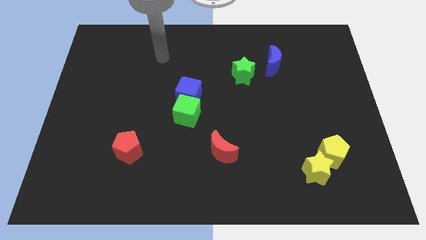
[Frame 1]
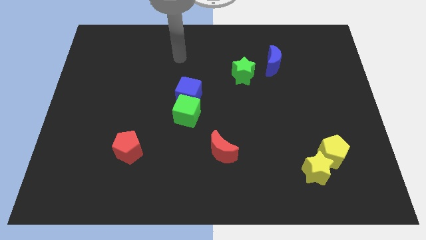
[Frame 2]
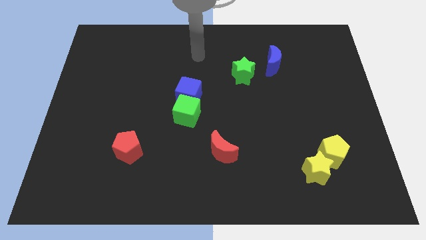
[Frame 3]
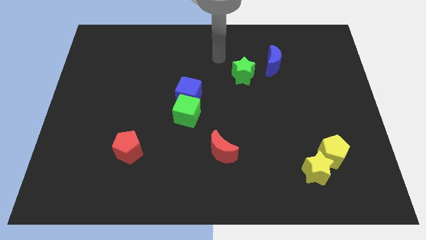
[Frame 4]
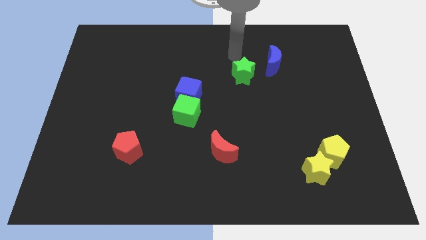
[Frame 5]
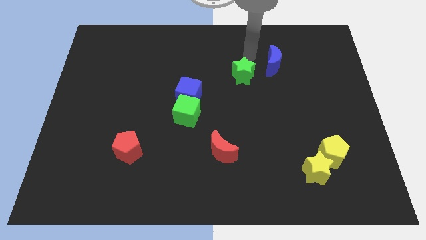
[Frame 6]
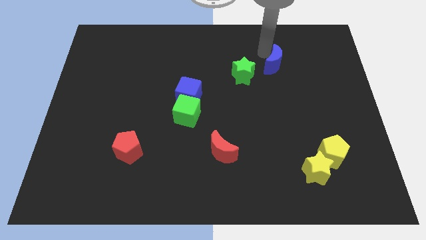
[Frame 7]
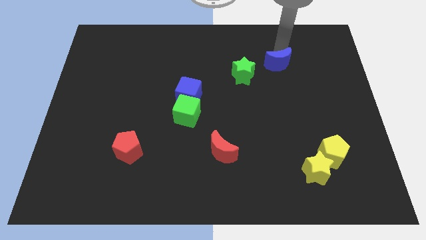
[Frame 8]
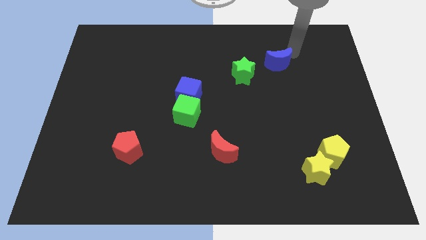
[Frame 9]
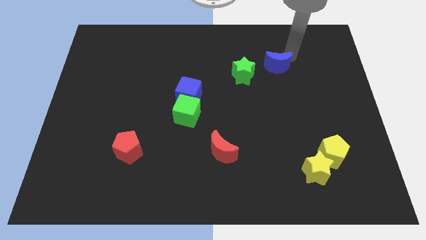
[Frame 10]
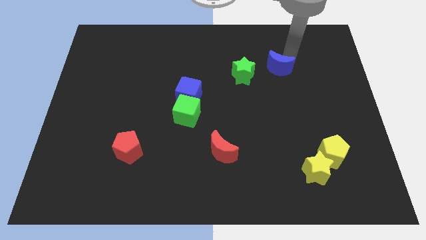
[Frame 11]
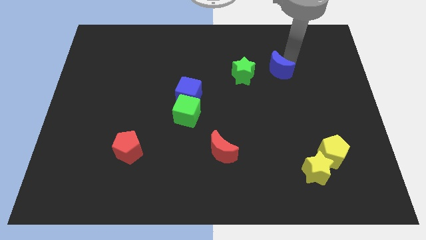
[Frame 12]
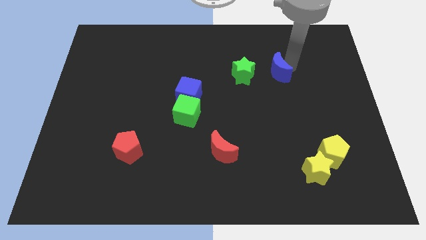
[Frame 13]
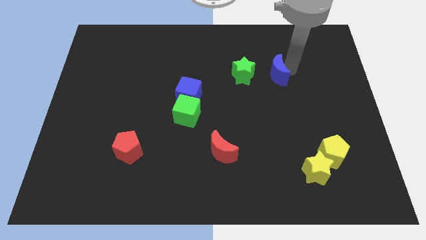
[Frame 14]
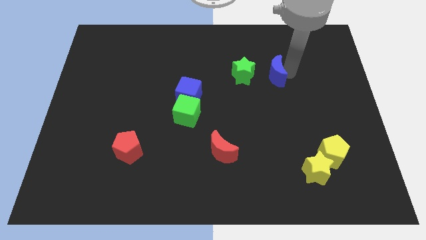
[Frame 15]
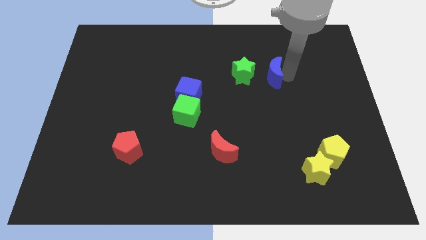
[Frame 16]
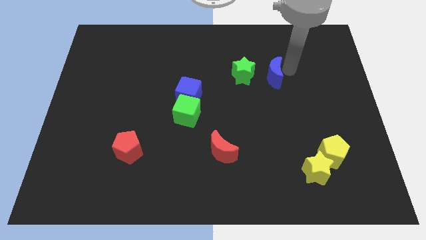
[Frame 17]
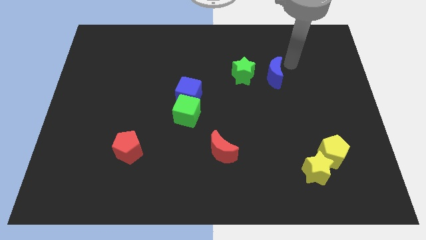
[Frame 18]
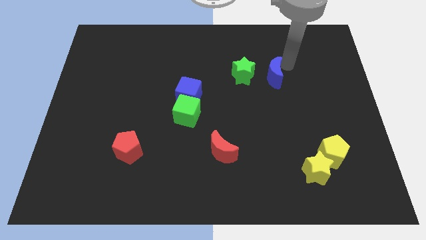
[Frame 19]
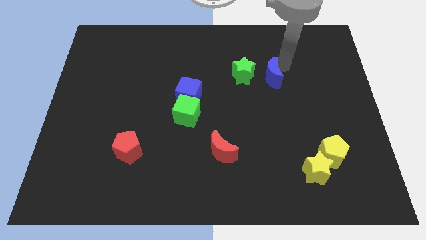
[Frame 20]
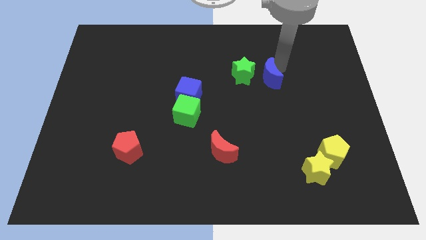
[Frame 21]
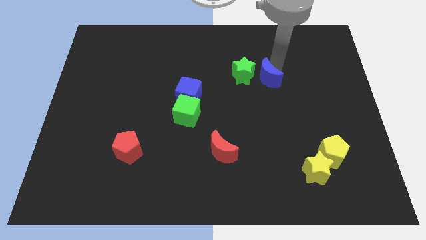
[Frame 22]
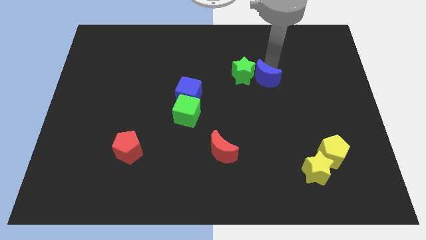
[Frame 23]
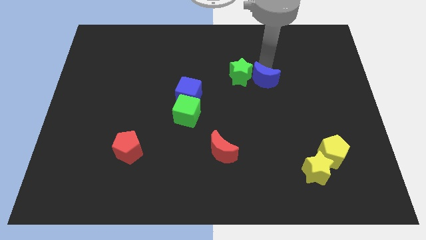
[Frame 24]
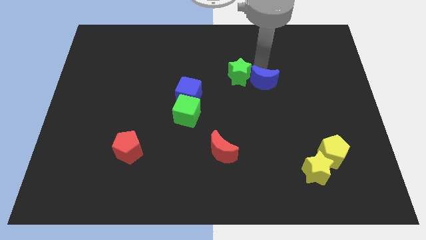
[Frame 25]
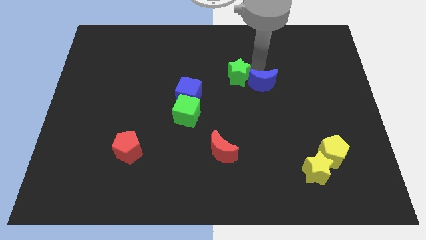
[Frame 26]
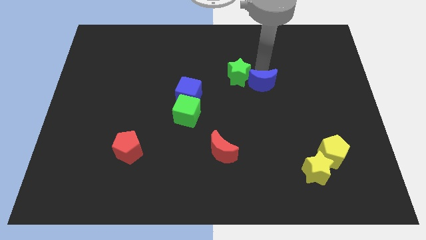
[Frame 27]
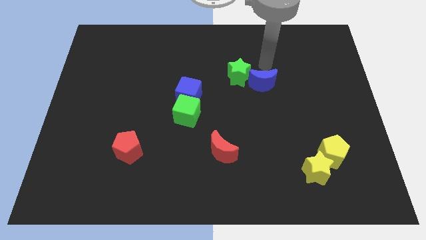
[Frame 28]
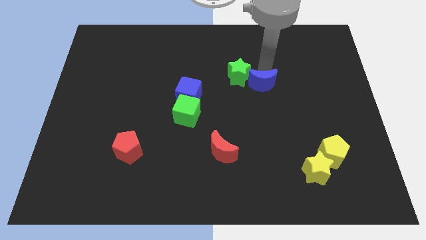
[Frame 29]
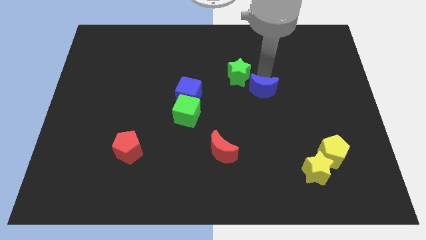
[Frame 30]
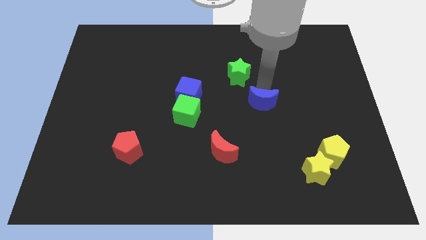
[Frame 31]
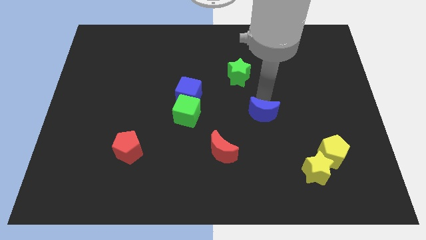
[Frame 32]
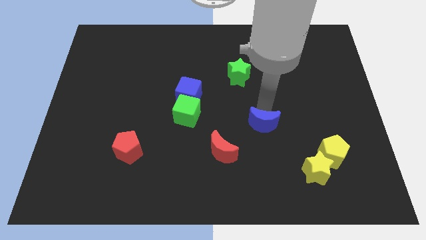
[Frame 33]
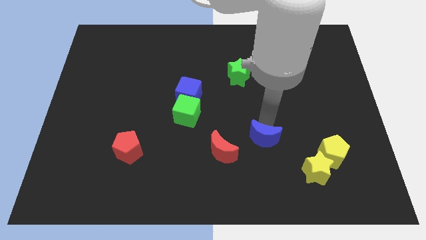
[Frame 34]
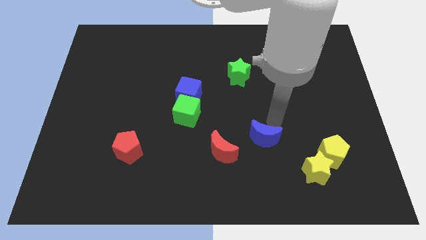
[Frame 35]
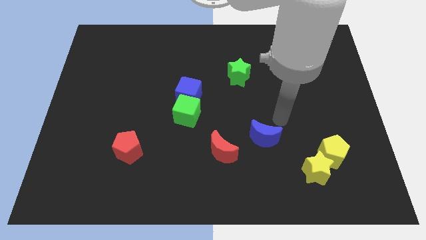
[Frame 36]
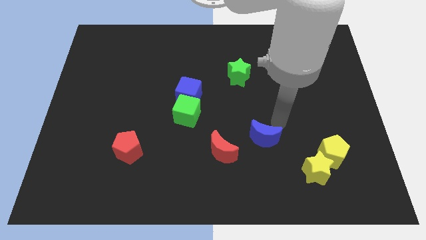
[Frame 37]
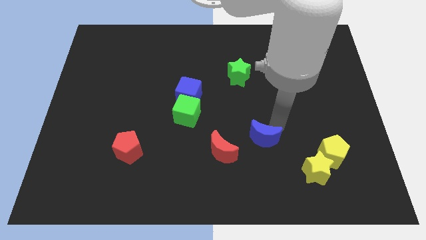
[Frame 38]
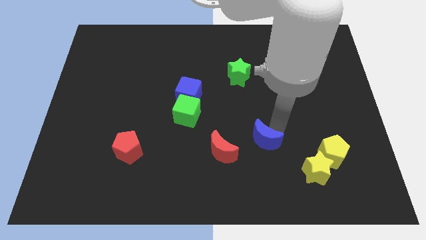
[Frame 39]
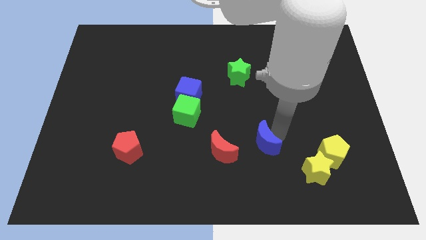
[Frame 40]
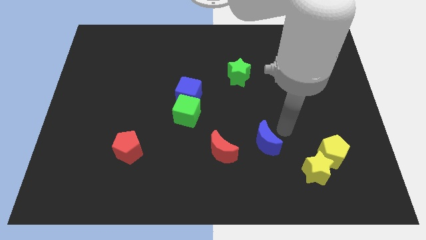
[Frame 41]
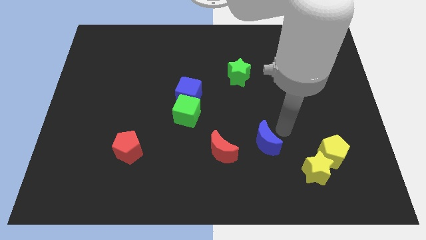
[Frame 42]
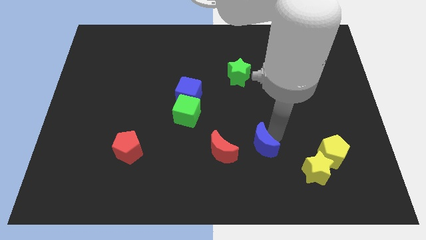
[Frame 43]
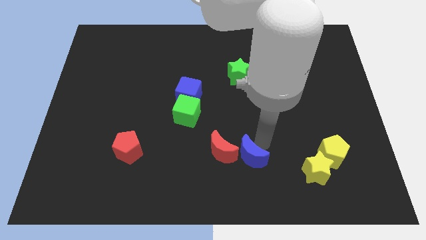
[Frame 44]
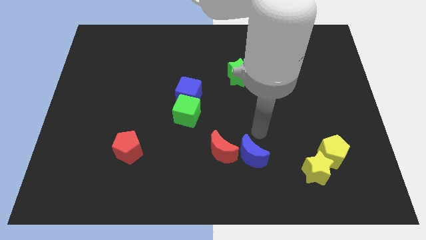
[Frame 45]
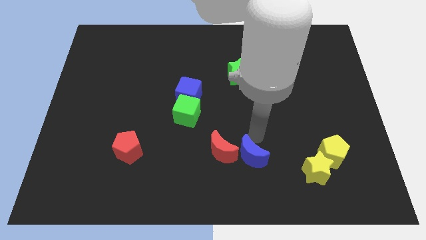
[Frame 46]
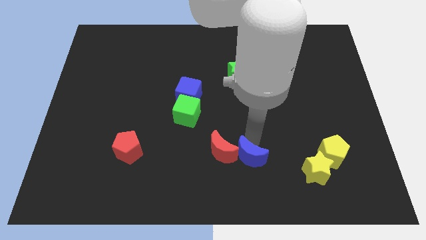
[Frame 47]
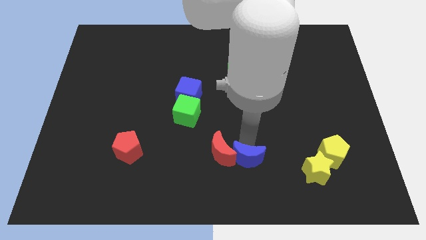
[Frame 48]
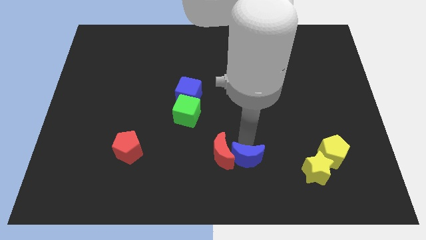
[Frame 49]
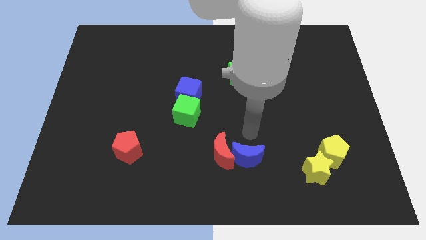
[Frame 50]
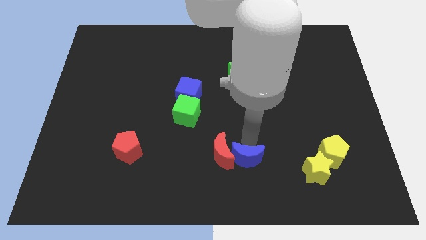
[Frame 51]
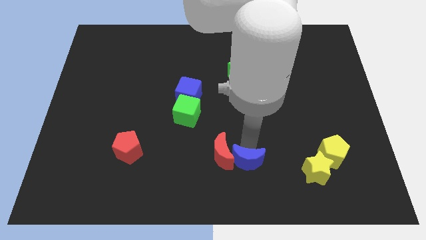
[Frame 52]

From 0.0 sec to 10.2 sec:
slide the blue moon to the bottom

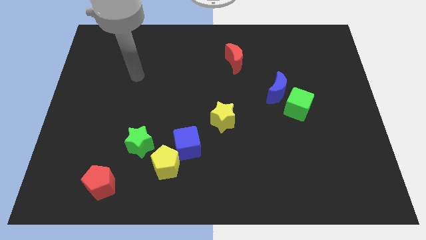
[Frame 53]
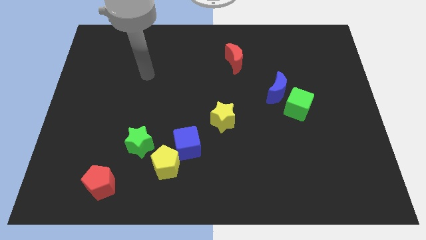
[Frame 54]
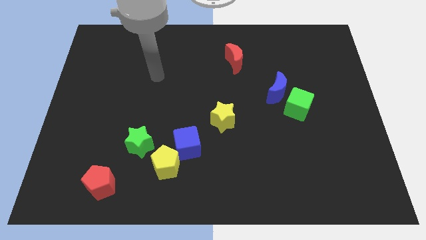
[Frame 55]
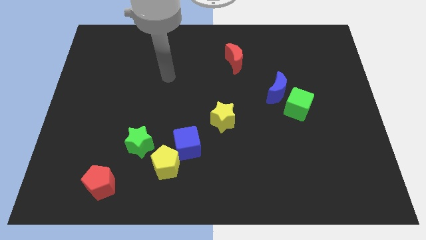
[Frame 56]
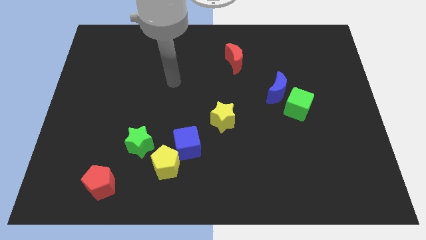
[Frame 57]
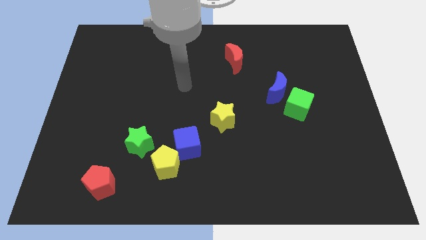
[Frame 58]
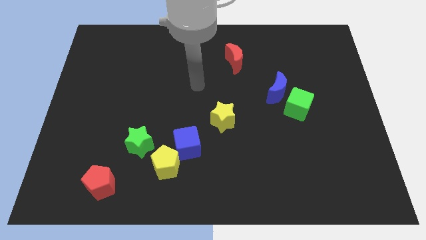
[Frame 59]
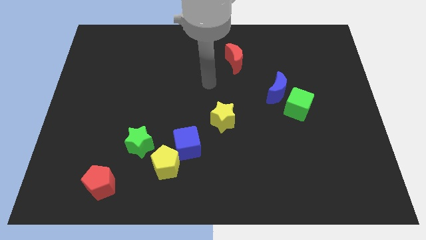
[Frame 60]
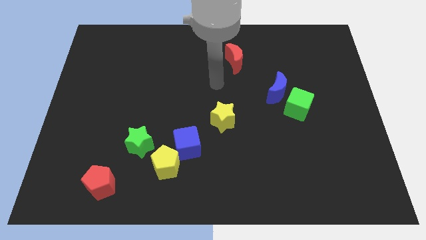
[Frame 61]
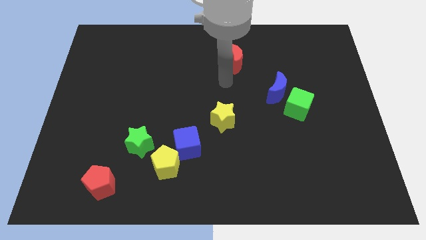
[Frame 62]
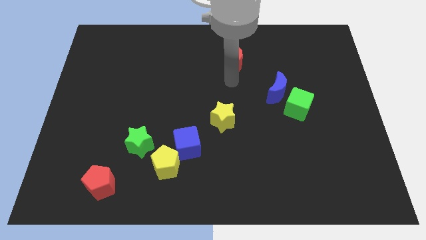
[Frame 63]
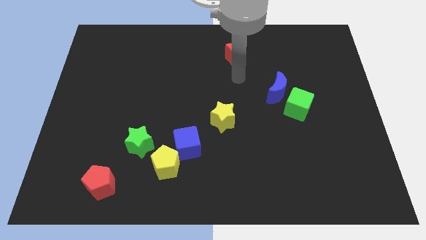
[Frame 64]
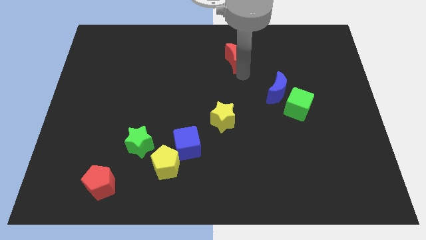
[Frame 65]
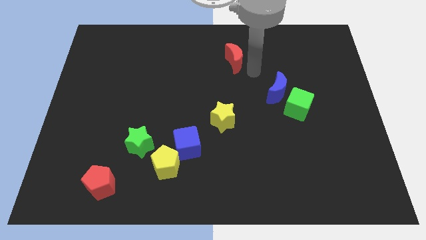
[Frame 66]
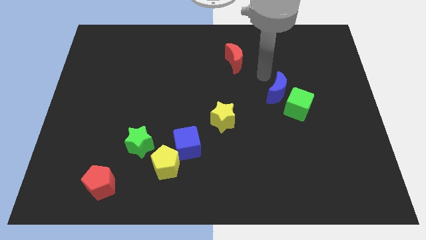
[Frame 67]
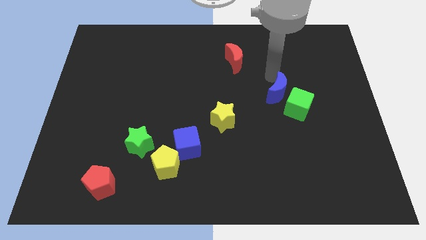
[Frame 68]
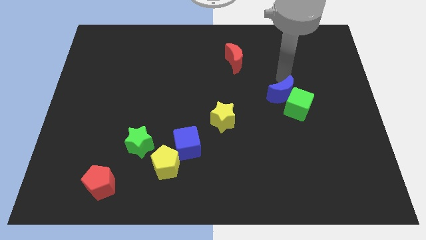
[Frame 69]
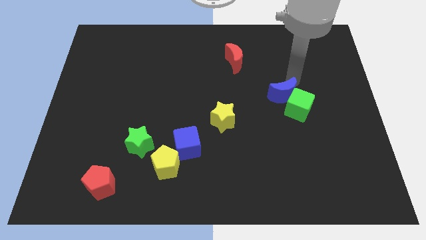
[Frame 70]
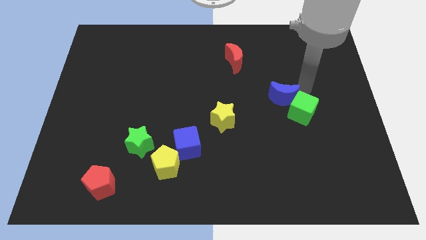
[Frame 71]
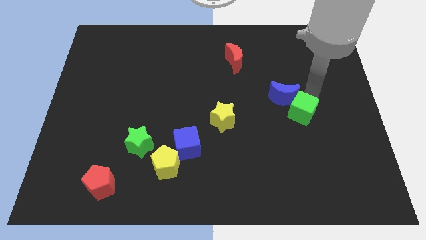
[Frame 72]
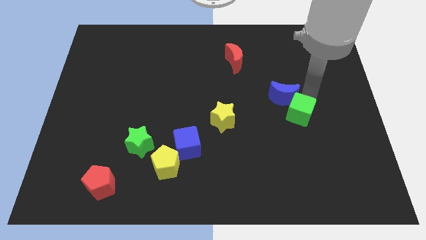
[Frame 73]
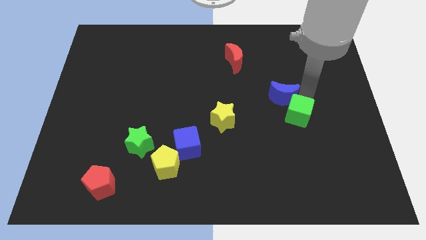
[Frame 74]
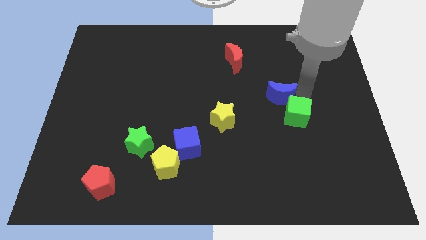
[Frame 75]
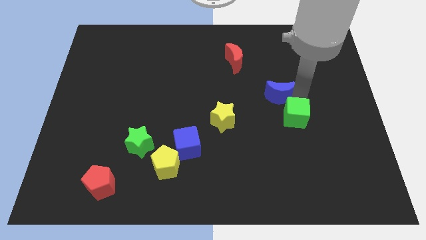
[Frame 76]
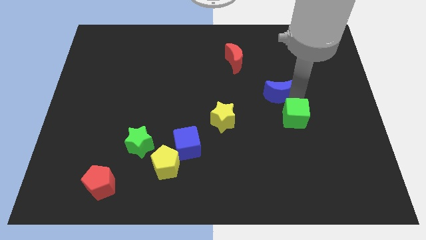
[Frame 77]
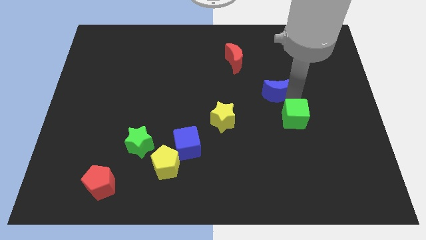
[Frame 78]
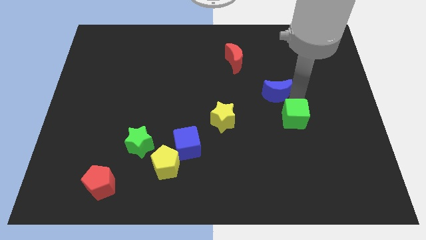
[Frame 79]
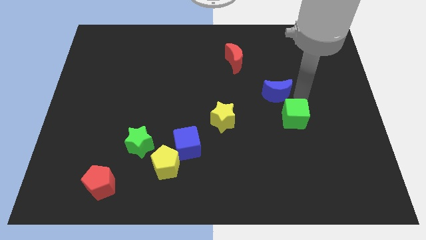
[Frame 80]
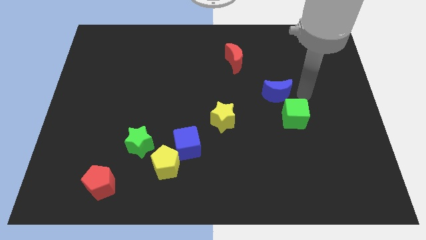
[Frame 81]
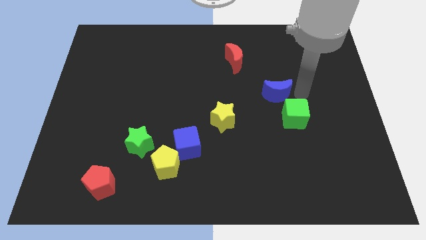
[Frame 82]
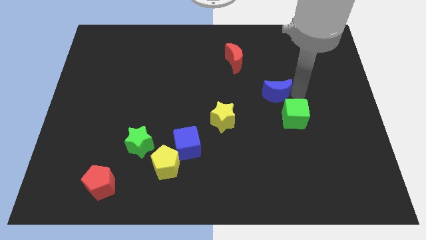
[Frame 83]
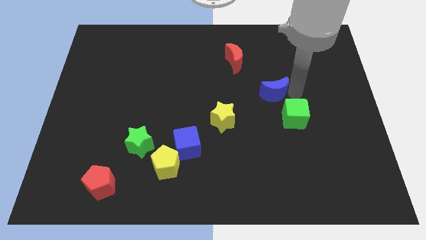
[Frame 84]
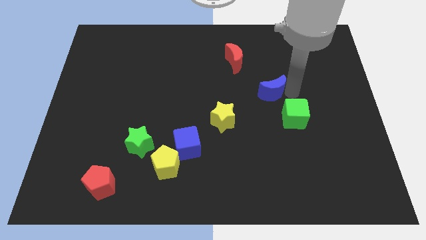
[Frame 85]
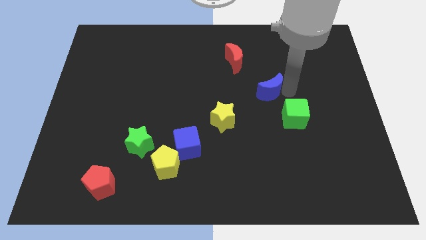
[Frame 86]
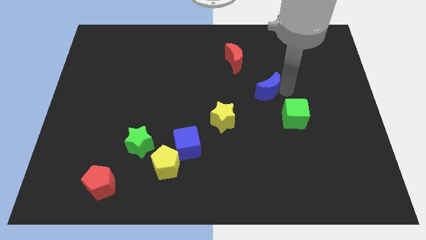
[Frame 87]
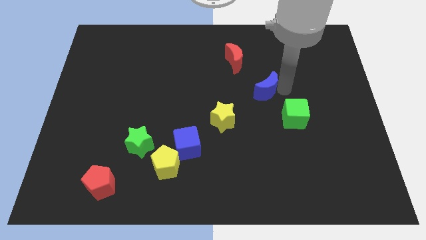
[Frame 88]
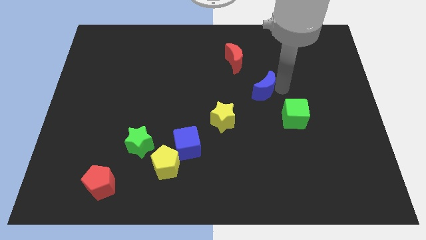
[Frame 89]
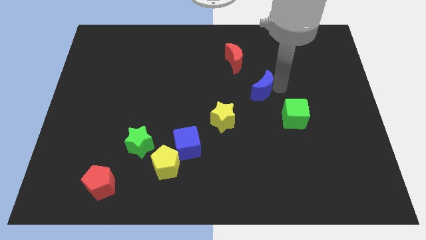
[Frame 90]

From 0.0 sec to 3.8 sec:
slide the blue moon to the middle of the board
